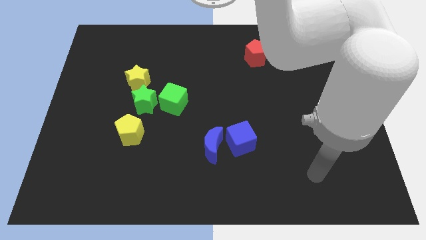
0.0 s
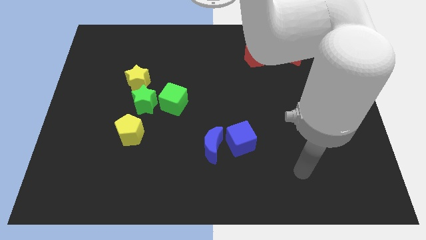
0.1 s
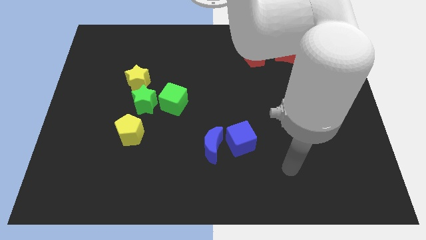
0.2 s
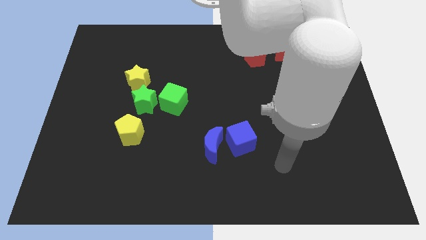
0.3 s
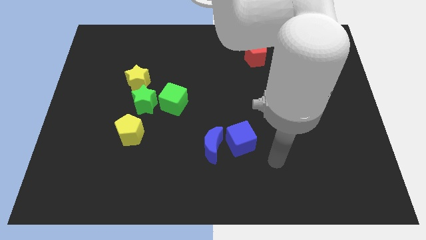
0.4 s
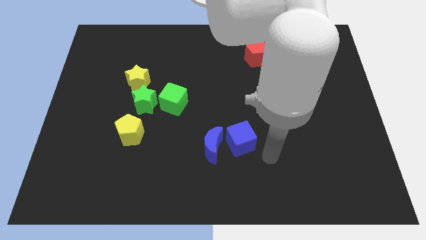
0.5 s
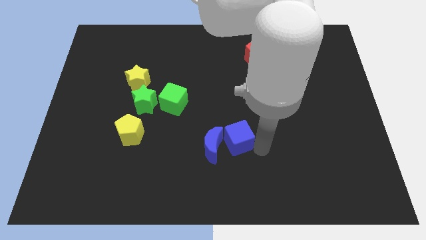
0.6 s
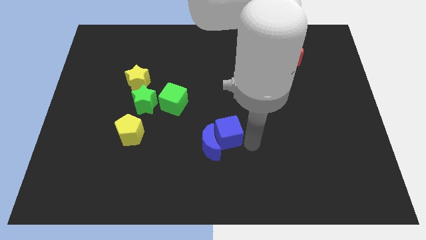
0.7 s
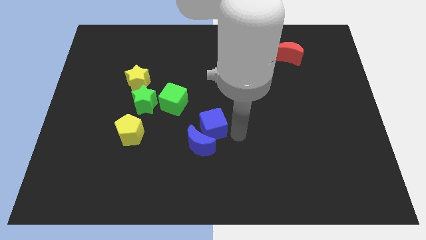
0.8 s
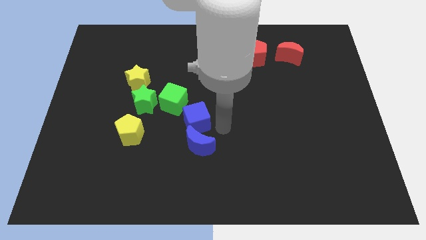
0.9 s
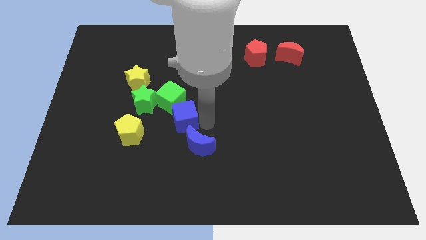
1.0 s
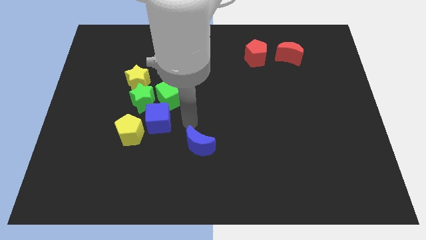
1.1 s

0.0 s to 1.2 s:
move the blue moon away from the blue cube

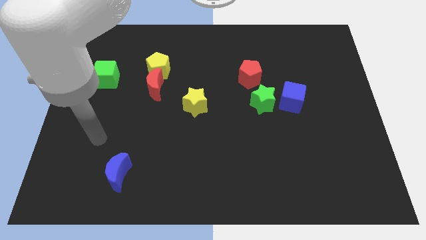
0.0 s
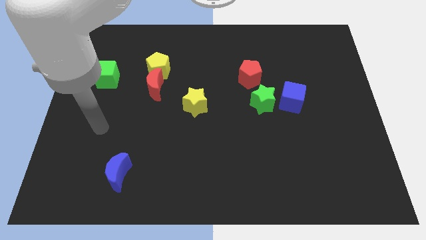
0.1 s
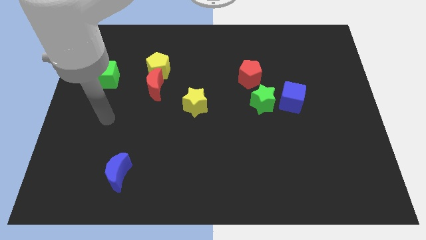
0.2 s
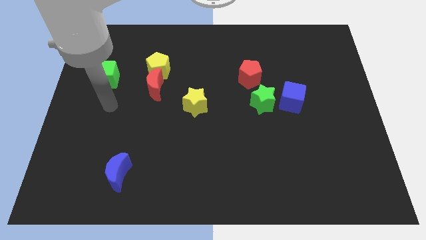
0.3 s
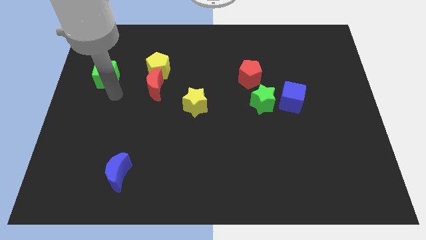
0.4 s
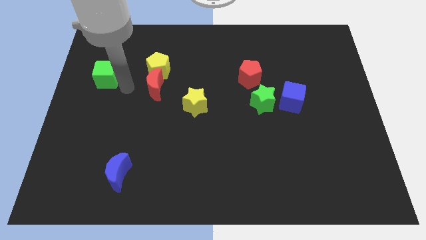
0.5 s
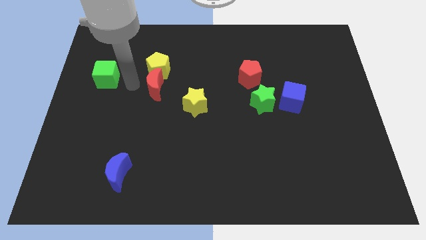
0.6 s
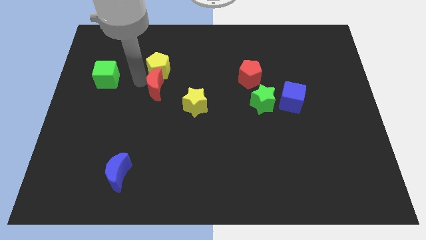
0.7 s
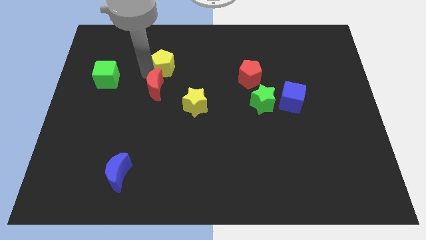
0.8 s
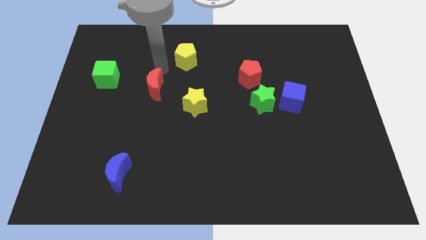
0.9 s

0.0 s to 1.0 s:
separate the red moon from the yellow pentagon

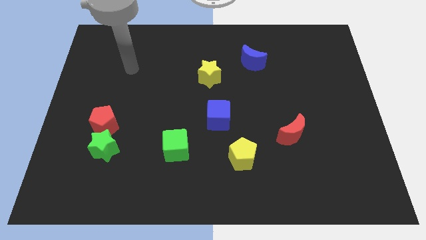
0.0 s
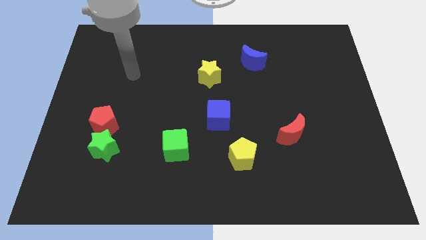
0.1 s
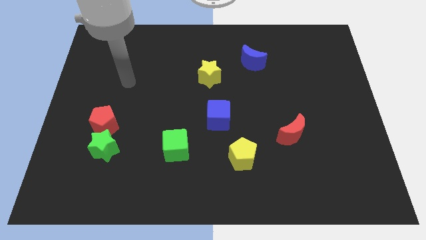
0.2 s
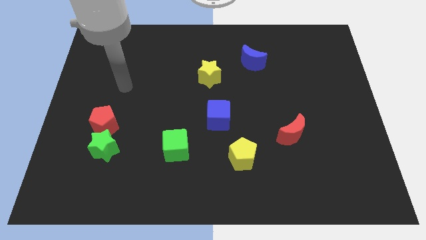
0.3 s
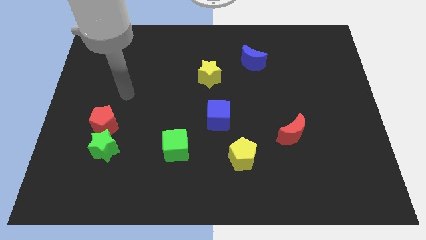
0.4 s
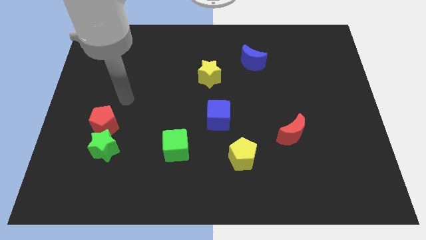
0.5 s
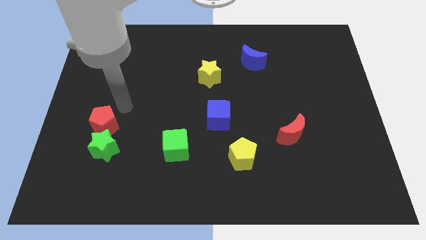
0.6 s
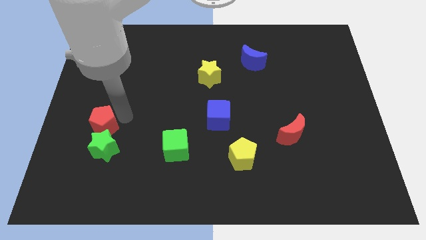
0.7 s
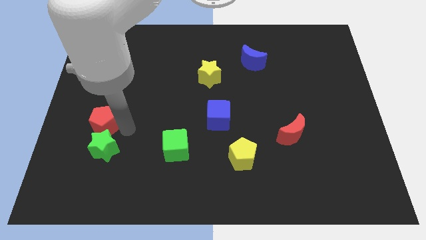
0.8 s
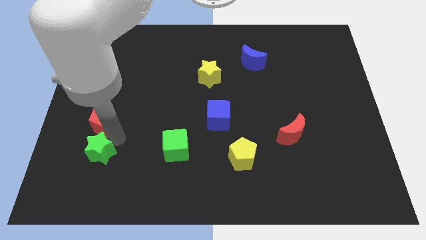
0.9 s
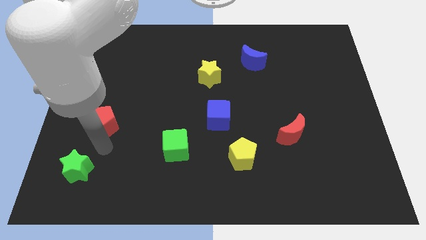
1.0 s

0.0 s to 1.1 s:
move the red pentagon away from the green star

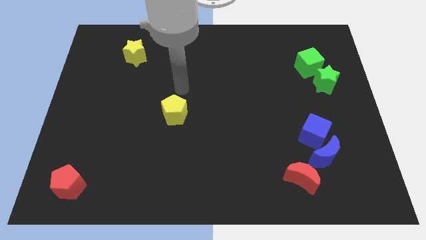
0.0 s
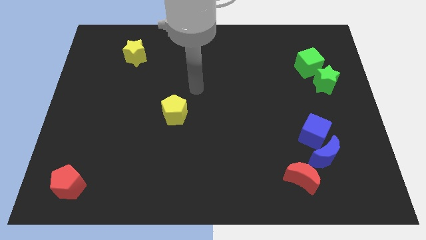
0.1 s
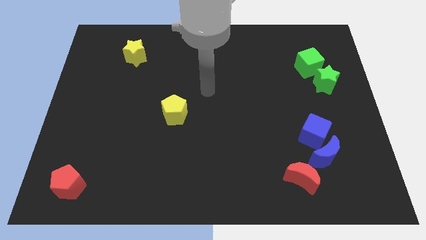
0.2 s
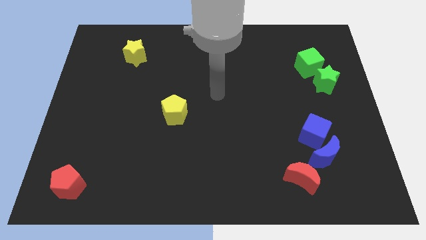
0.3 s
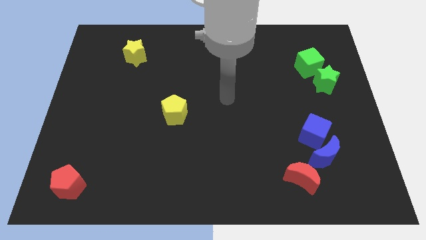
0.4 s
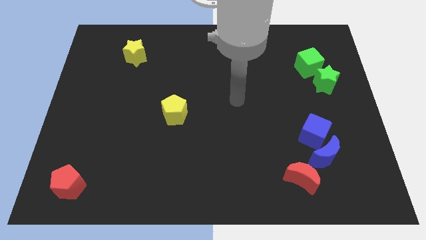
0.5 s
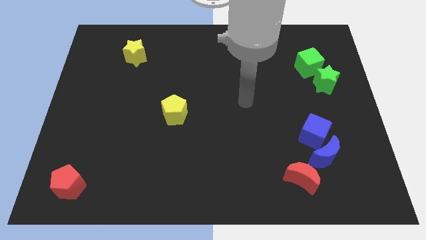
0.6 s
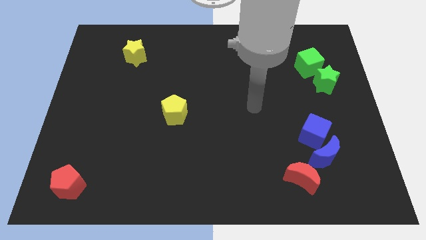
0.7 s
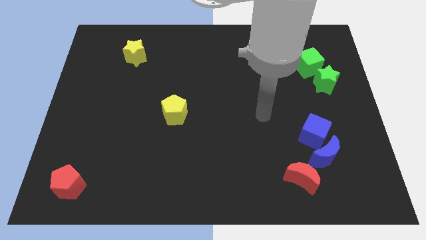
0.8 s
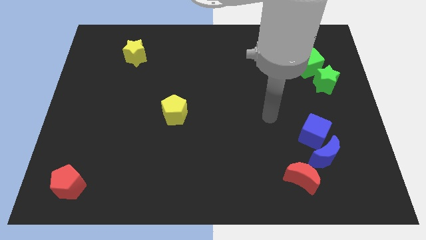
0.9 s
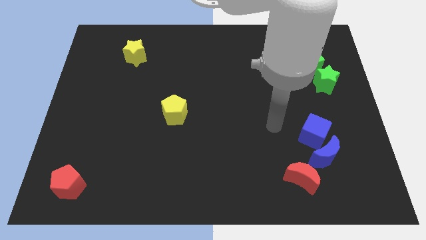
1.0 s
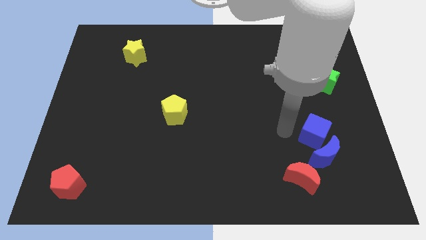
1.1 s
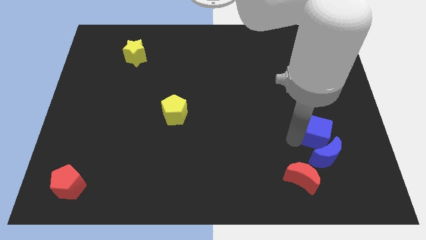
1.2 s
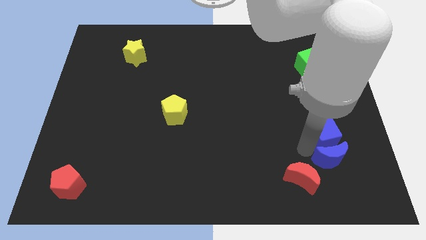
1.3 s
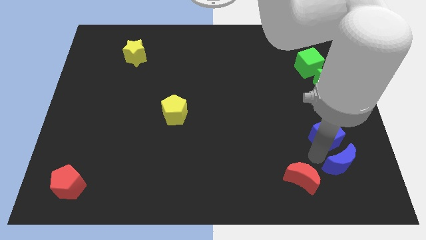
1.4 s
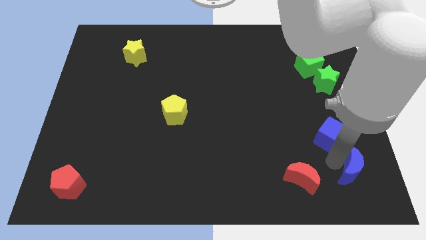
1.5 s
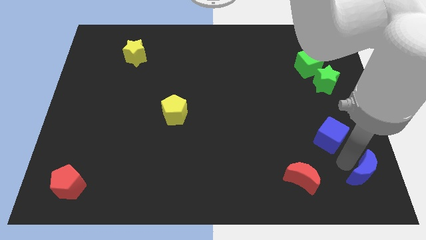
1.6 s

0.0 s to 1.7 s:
pull the blue cube apart from the blue moon

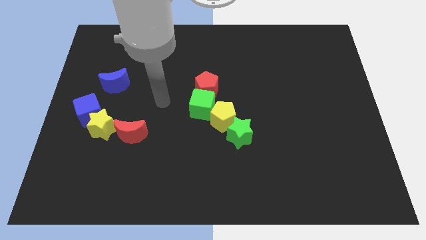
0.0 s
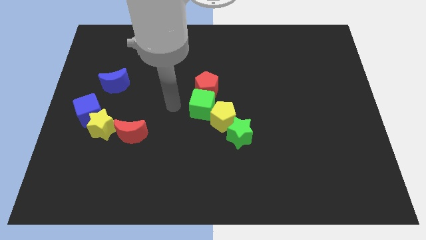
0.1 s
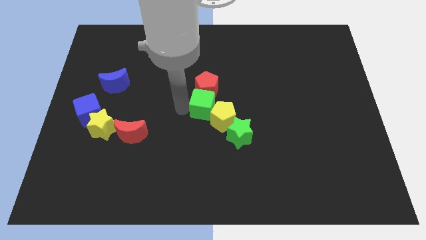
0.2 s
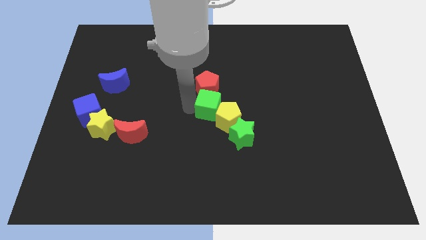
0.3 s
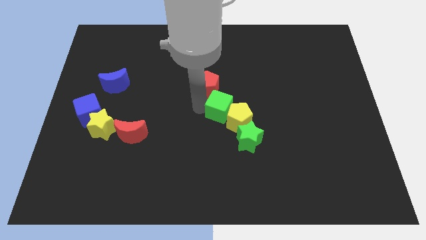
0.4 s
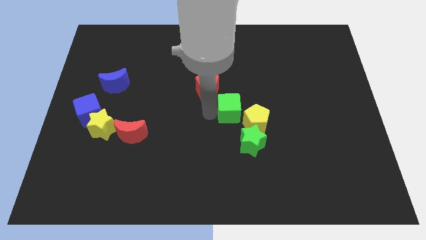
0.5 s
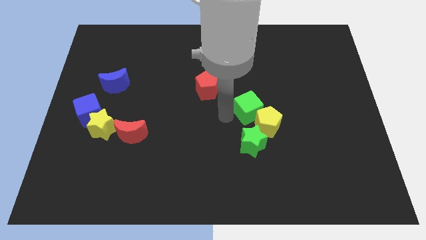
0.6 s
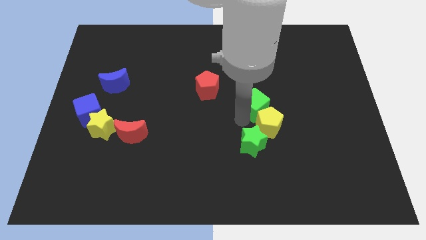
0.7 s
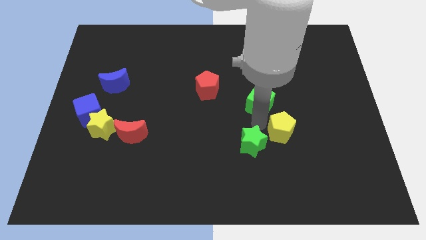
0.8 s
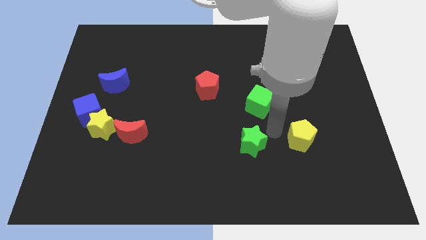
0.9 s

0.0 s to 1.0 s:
move the green star away from the yellow pentagon

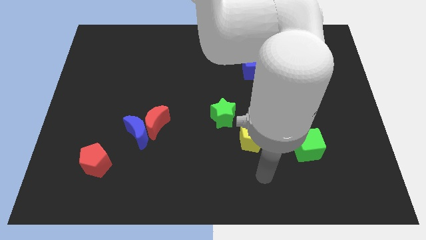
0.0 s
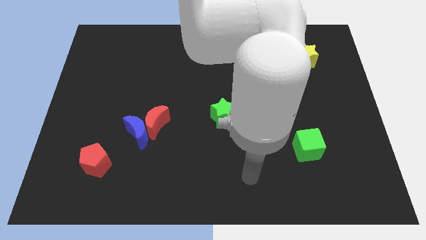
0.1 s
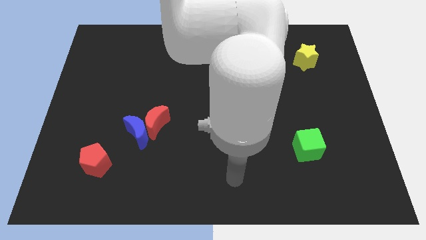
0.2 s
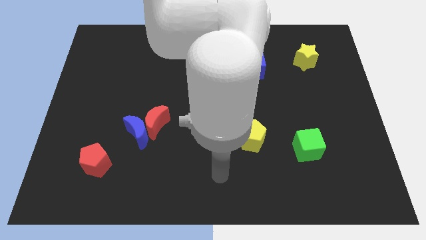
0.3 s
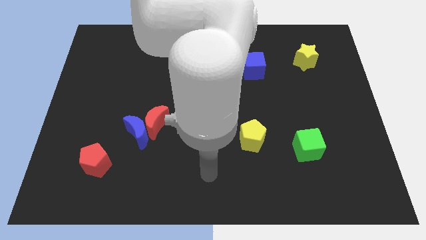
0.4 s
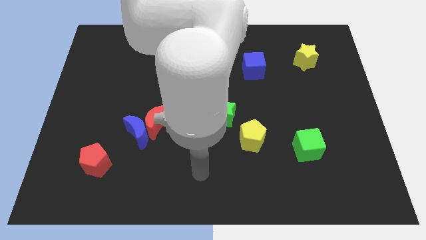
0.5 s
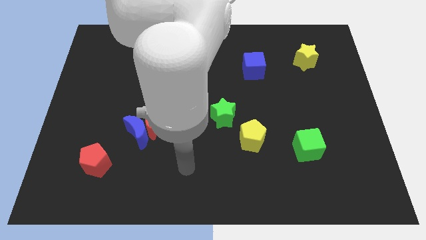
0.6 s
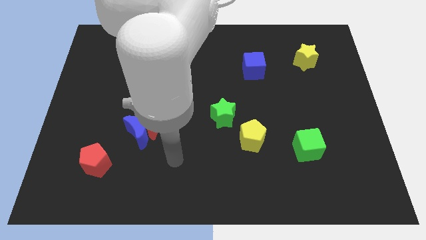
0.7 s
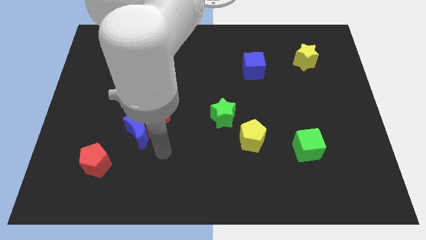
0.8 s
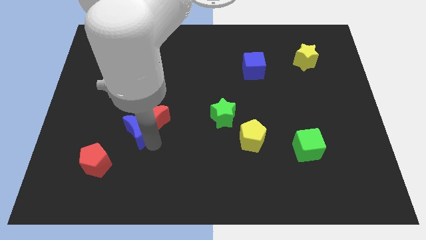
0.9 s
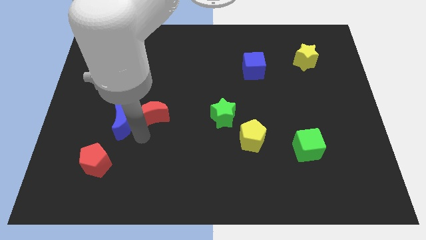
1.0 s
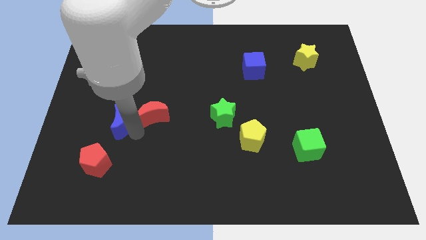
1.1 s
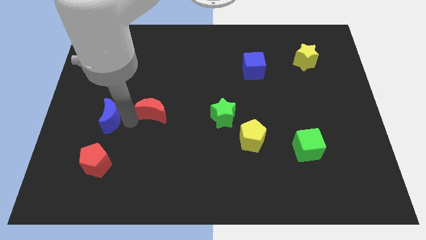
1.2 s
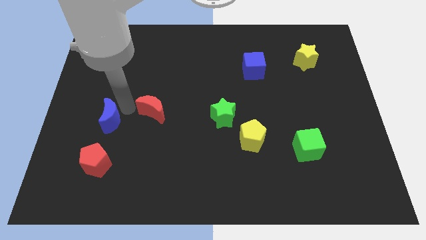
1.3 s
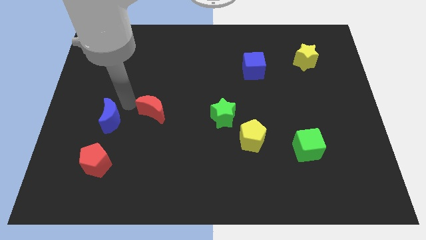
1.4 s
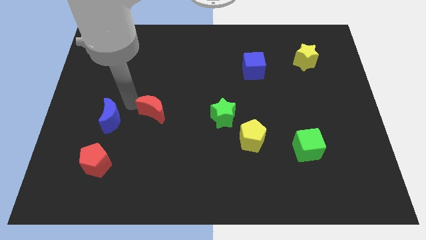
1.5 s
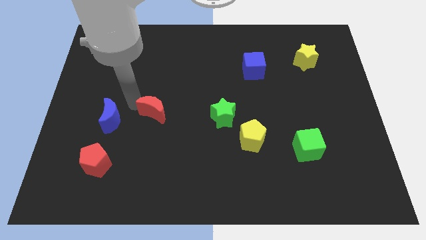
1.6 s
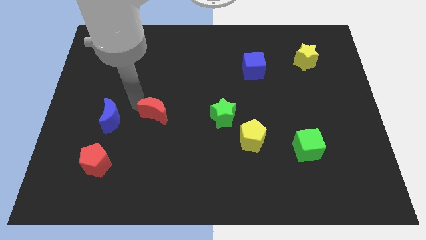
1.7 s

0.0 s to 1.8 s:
move the red moon away from the blue moon

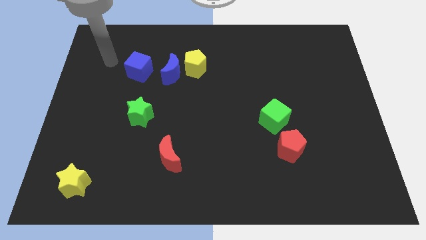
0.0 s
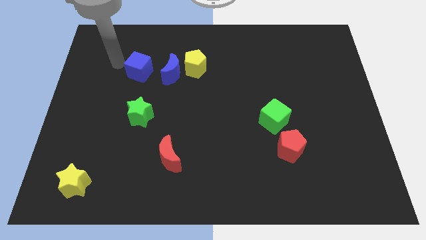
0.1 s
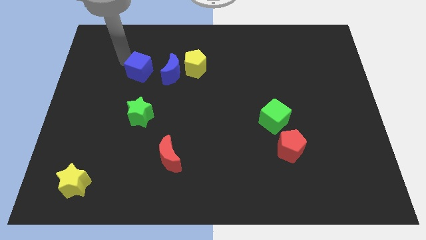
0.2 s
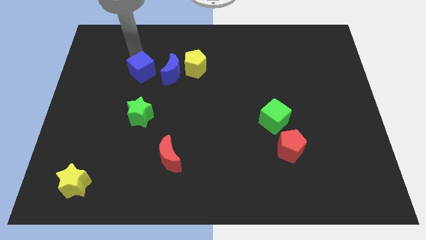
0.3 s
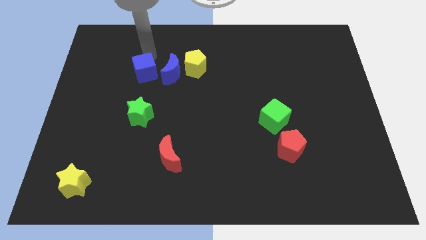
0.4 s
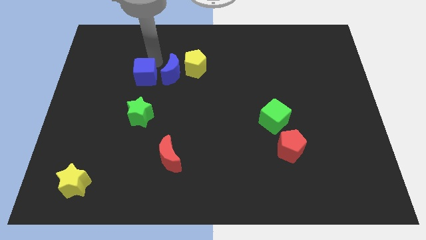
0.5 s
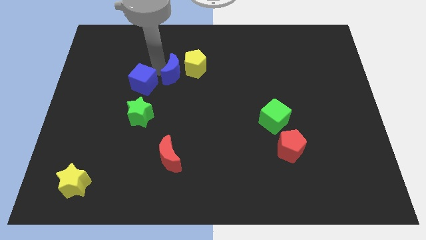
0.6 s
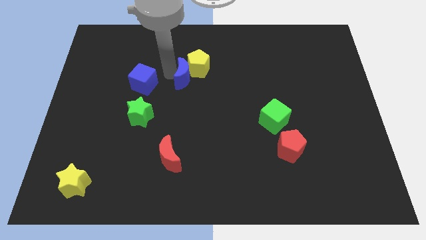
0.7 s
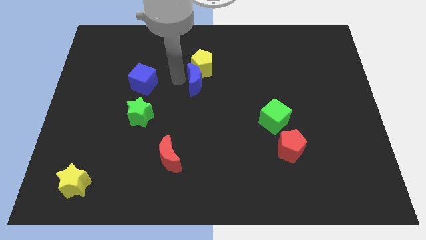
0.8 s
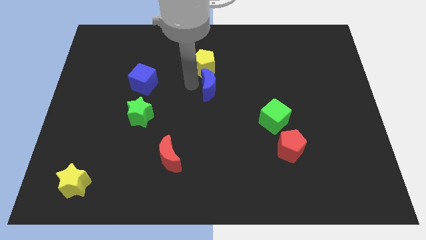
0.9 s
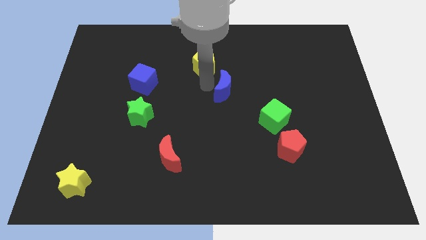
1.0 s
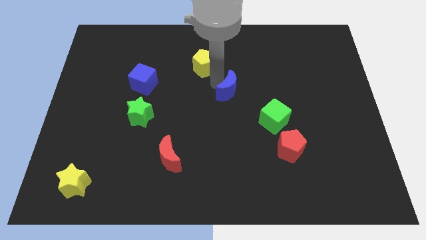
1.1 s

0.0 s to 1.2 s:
separate the yellow pentagon from the blue moon

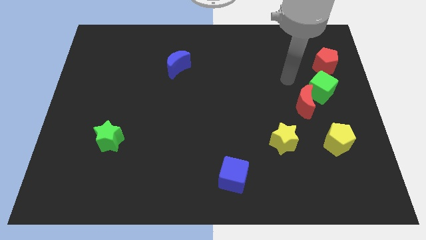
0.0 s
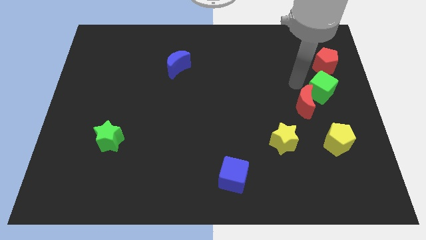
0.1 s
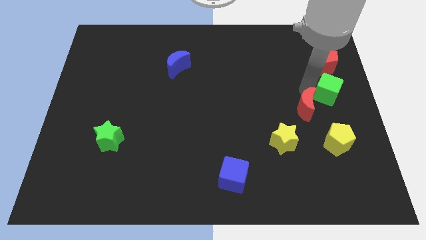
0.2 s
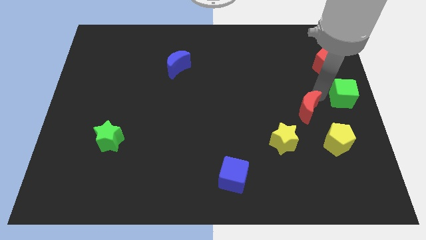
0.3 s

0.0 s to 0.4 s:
separate the red moon from the green cube
